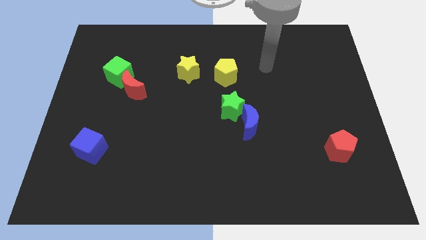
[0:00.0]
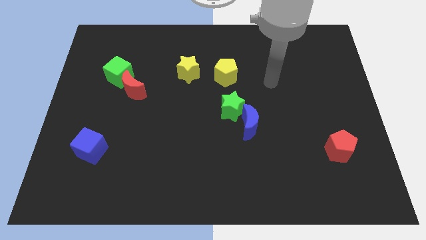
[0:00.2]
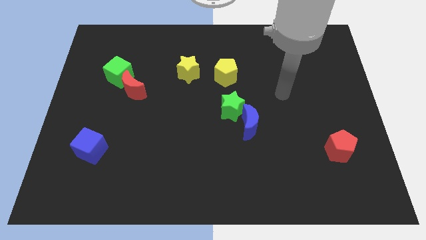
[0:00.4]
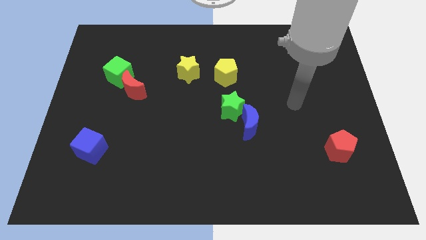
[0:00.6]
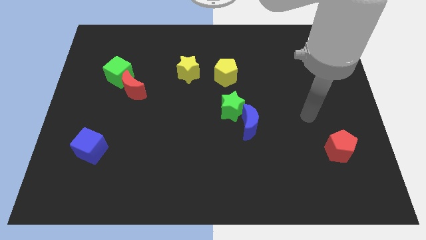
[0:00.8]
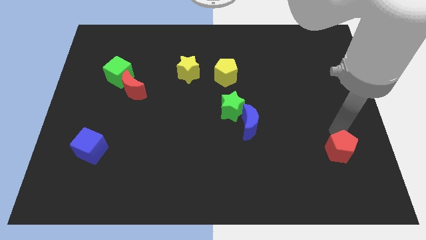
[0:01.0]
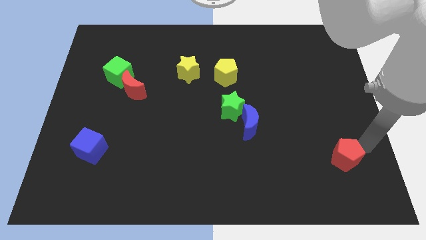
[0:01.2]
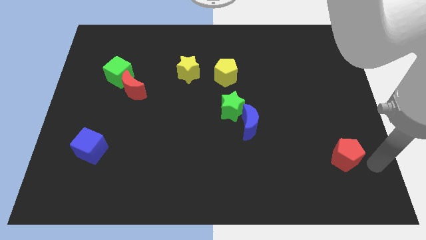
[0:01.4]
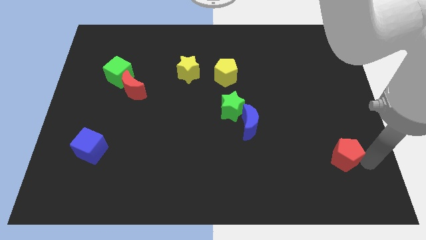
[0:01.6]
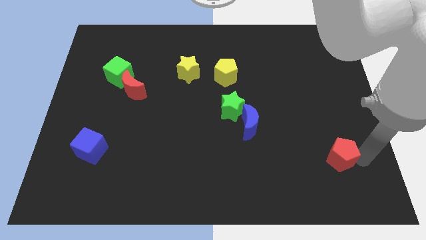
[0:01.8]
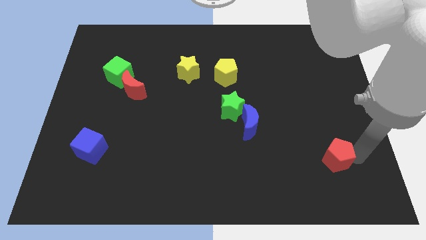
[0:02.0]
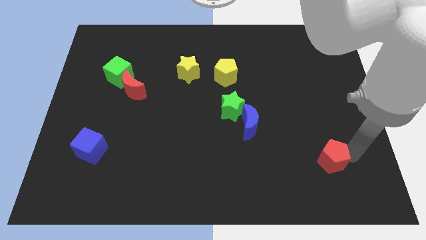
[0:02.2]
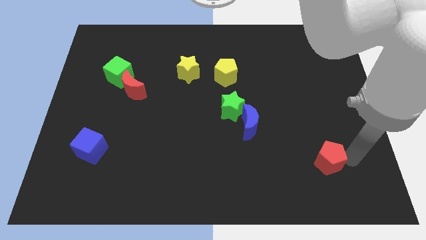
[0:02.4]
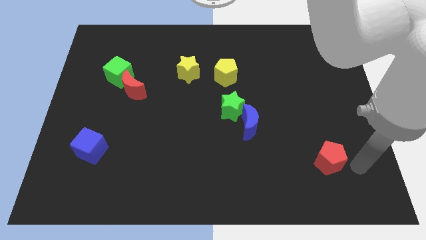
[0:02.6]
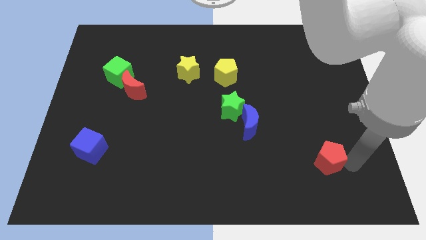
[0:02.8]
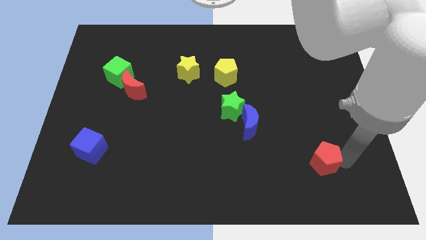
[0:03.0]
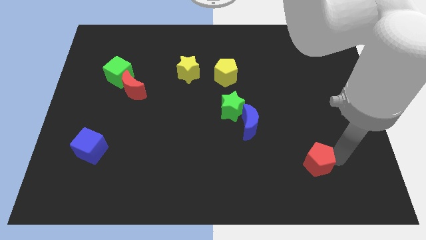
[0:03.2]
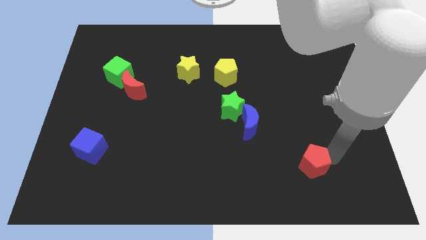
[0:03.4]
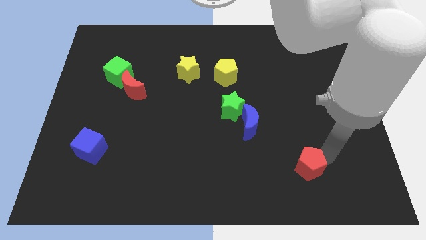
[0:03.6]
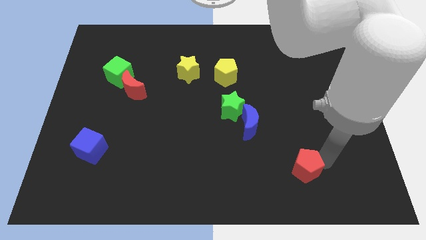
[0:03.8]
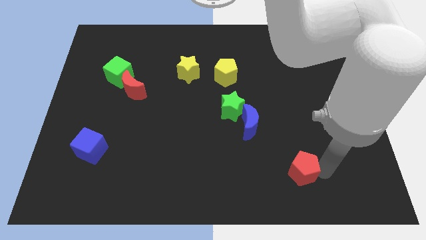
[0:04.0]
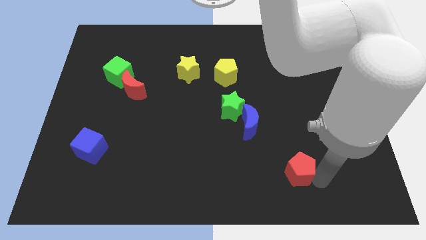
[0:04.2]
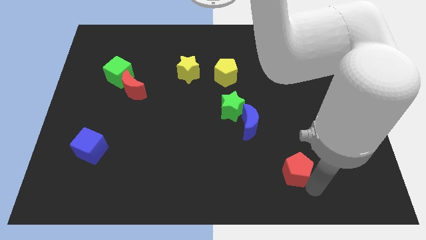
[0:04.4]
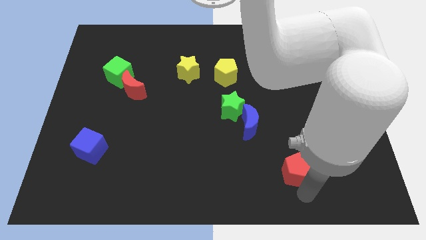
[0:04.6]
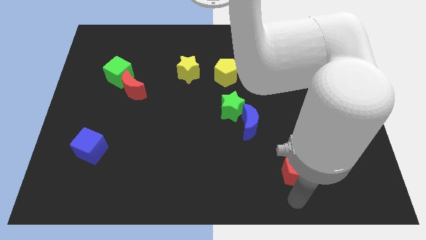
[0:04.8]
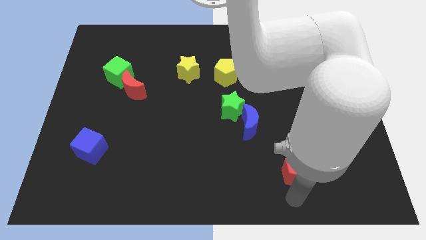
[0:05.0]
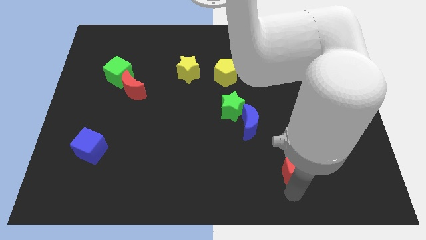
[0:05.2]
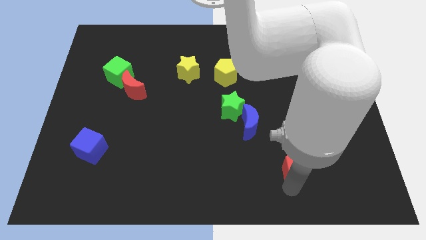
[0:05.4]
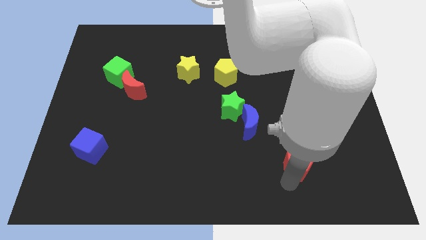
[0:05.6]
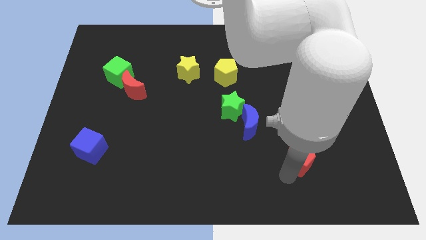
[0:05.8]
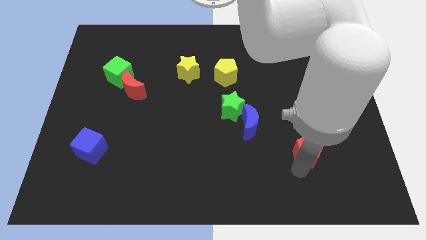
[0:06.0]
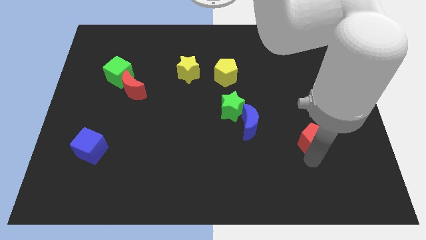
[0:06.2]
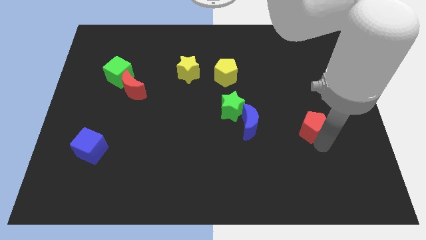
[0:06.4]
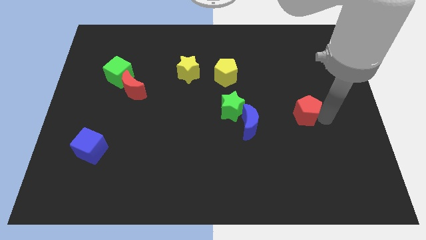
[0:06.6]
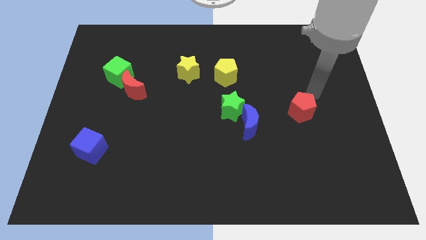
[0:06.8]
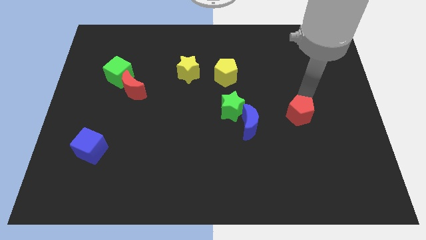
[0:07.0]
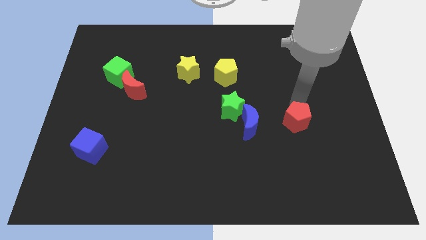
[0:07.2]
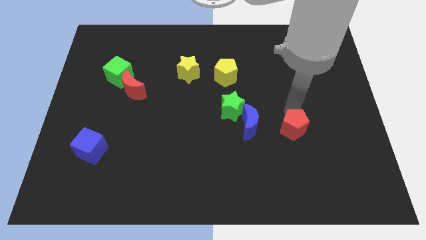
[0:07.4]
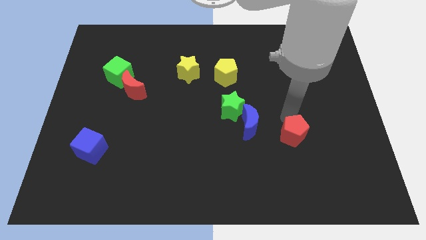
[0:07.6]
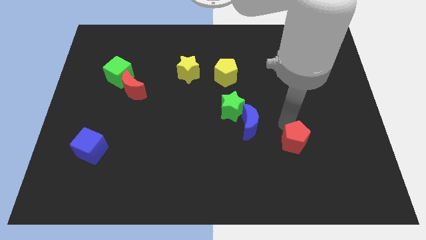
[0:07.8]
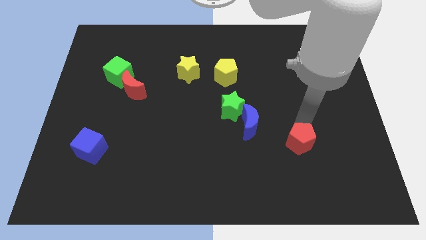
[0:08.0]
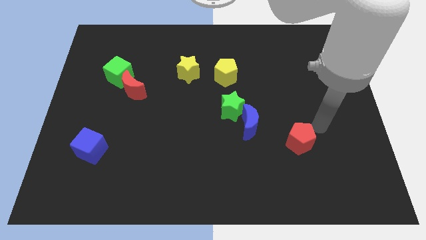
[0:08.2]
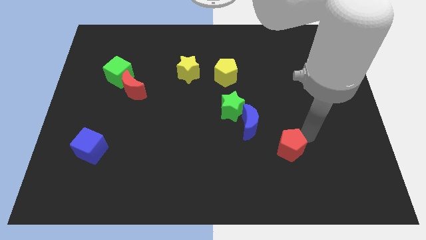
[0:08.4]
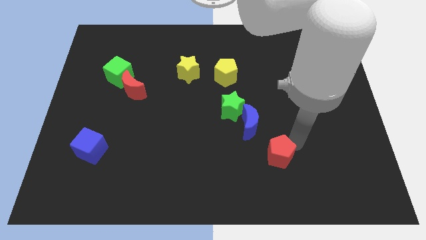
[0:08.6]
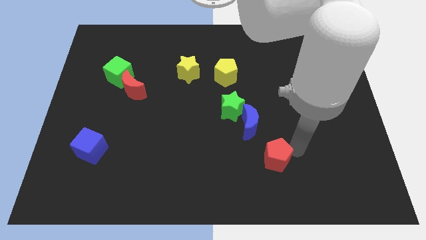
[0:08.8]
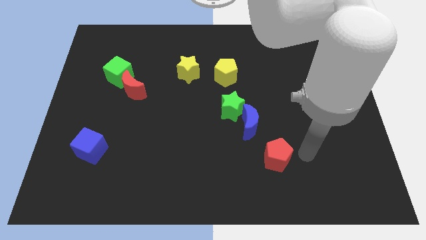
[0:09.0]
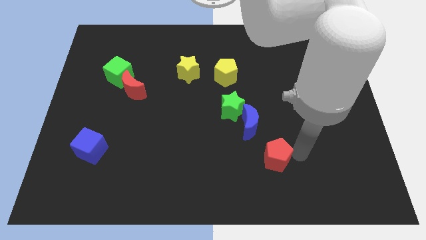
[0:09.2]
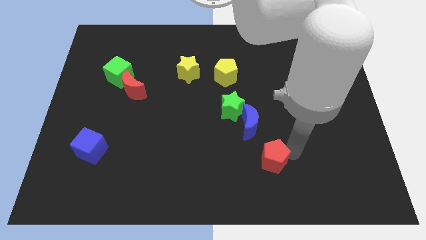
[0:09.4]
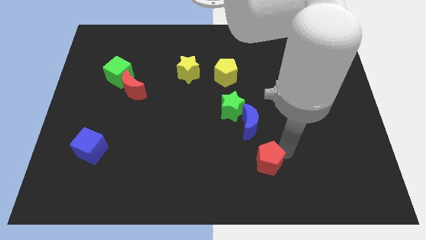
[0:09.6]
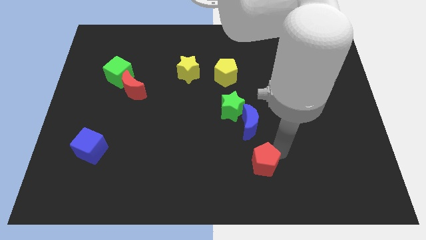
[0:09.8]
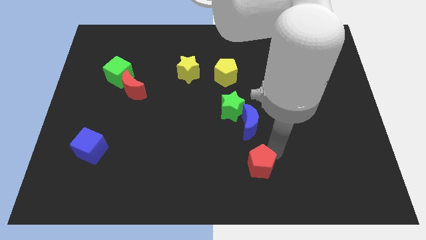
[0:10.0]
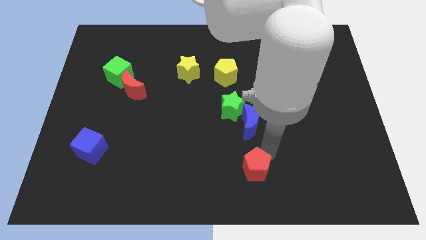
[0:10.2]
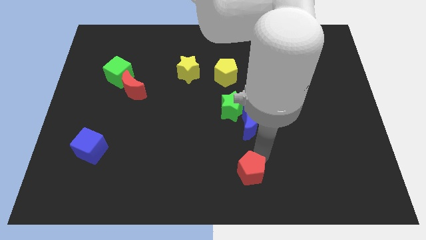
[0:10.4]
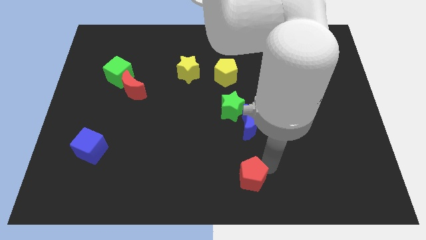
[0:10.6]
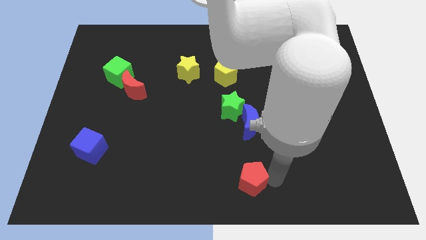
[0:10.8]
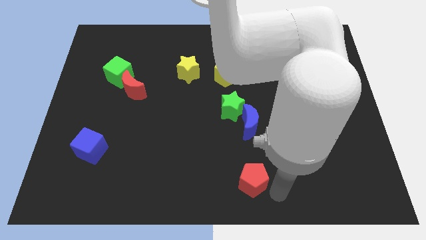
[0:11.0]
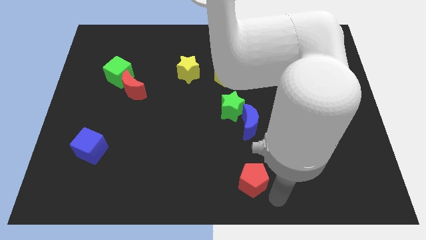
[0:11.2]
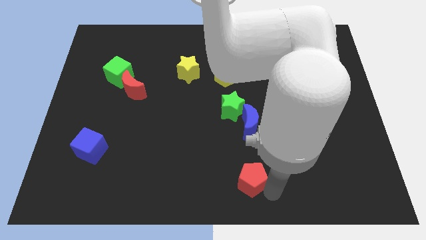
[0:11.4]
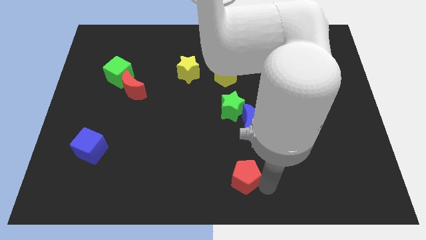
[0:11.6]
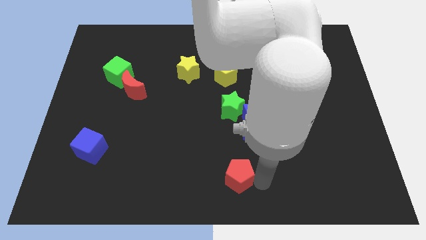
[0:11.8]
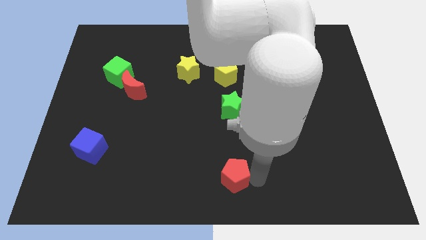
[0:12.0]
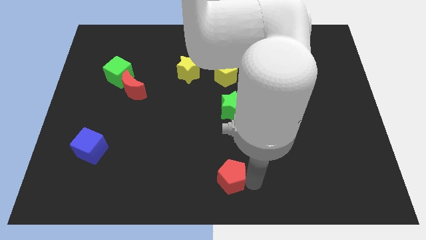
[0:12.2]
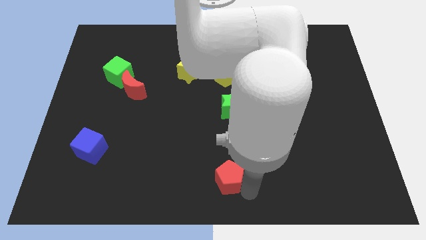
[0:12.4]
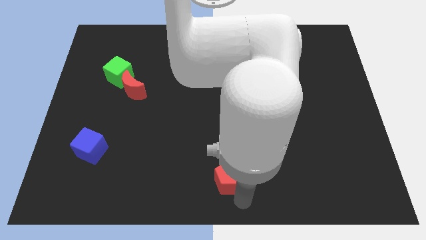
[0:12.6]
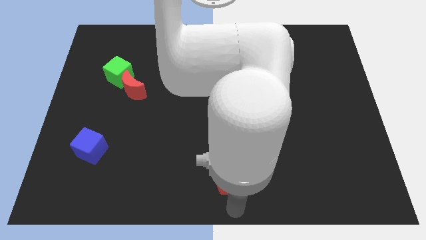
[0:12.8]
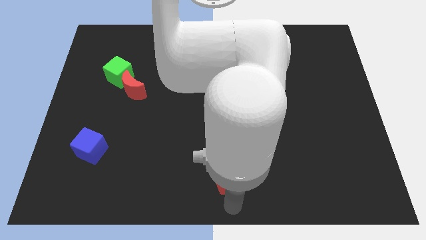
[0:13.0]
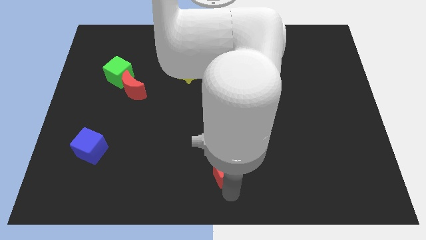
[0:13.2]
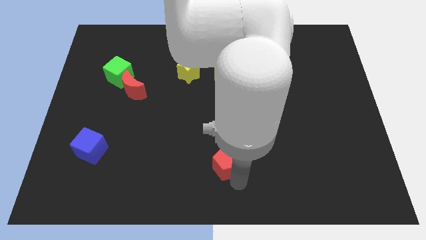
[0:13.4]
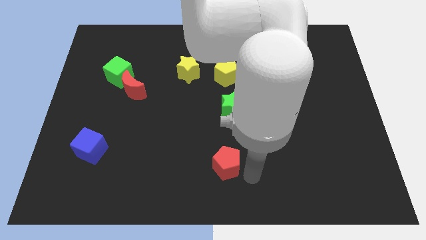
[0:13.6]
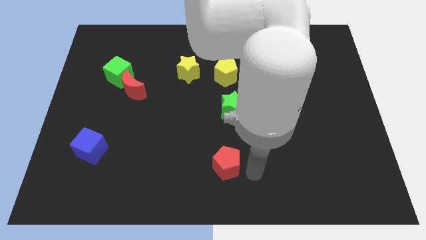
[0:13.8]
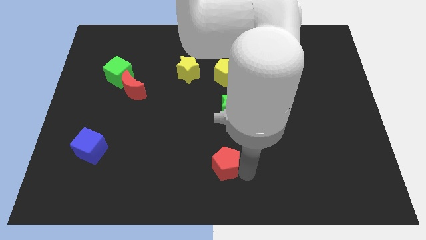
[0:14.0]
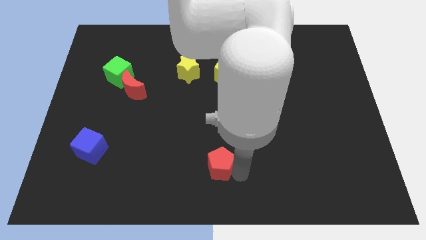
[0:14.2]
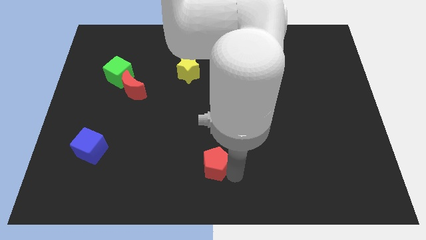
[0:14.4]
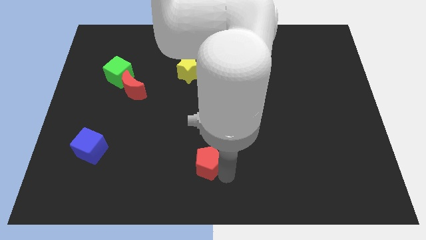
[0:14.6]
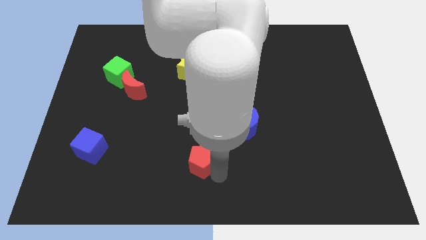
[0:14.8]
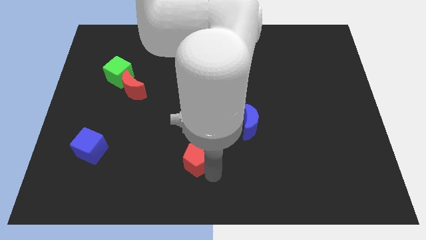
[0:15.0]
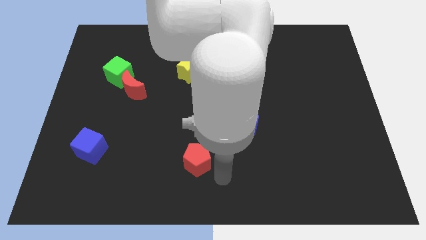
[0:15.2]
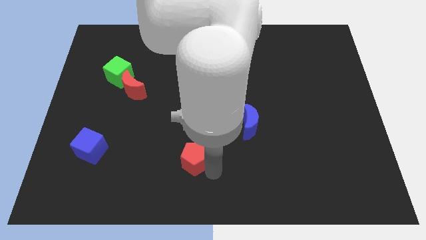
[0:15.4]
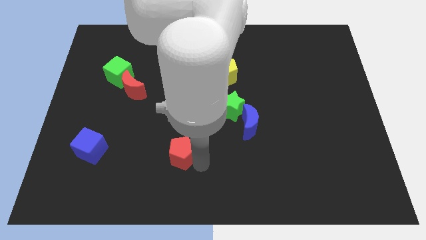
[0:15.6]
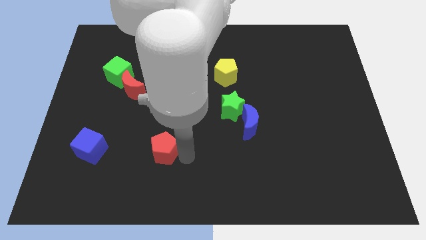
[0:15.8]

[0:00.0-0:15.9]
slide the red pentagon to the right of the blue cube
